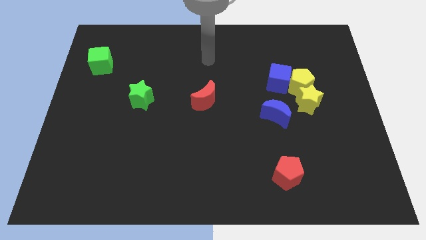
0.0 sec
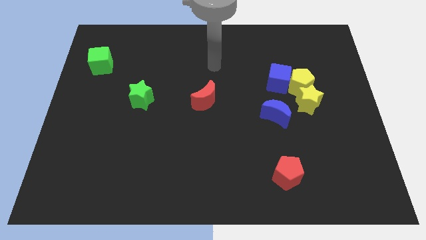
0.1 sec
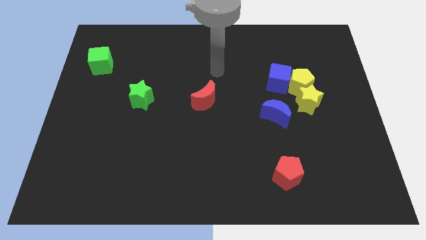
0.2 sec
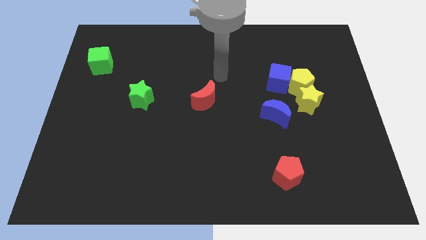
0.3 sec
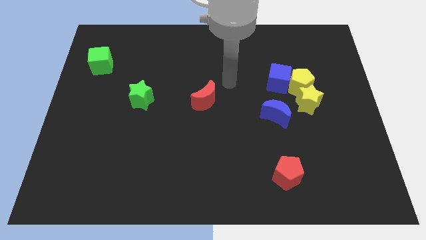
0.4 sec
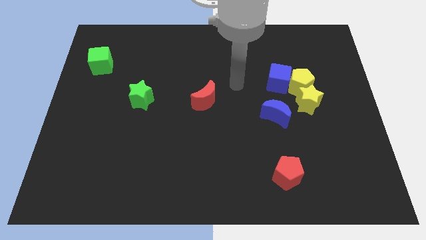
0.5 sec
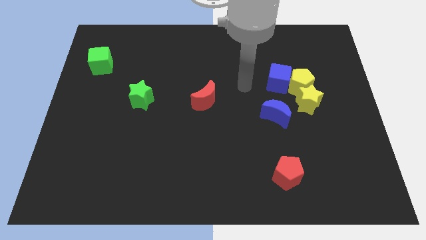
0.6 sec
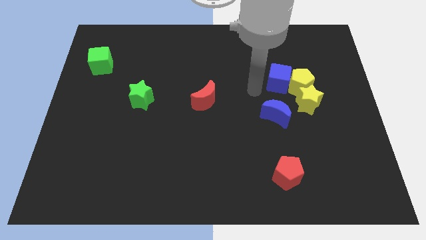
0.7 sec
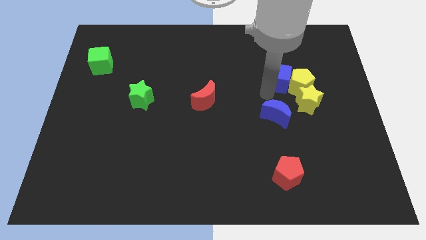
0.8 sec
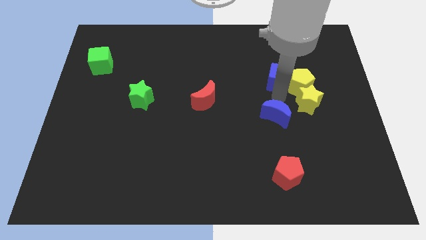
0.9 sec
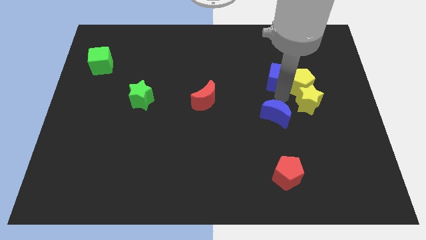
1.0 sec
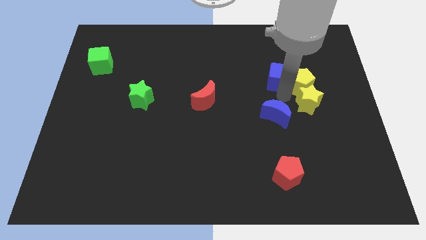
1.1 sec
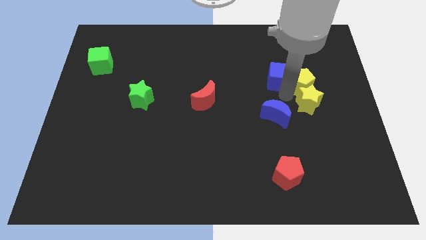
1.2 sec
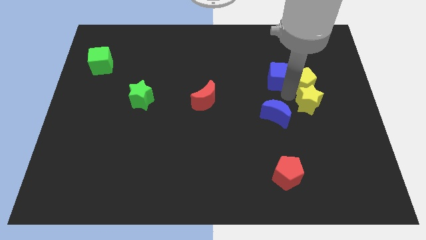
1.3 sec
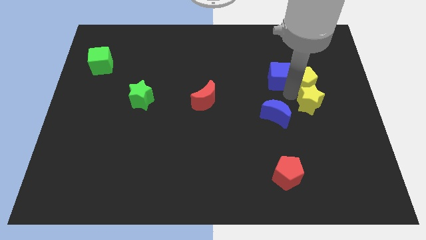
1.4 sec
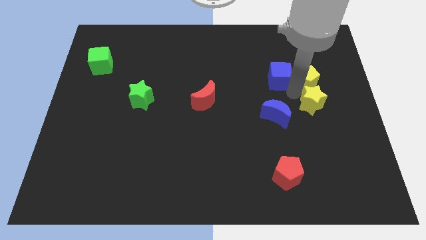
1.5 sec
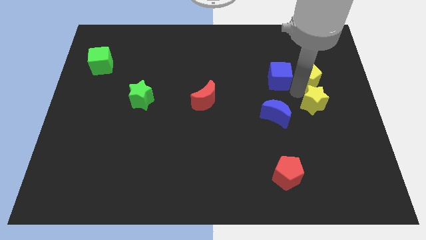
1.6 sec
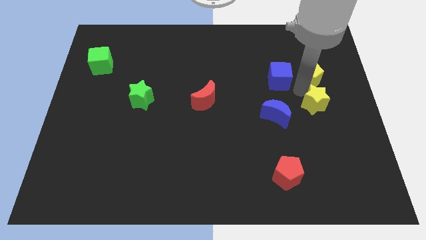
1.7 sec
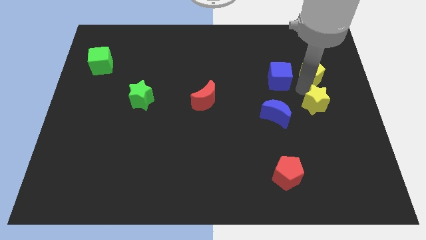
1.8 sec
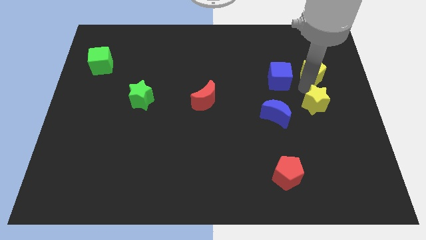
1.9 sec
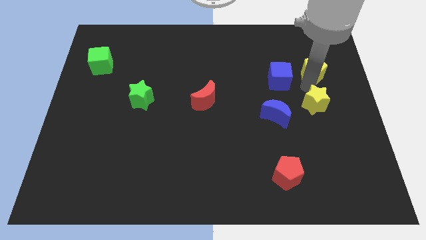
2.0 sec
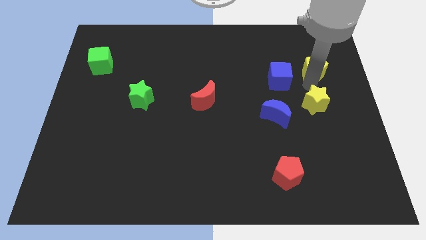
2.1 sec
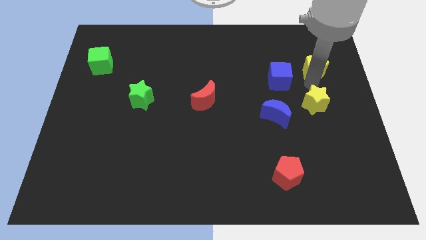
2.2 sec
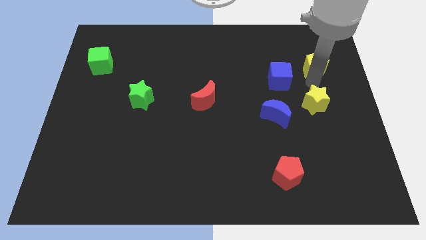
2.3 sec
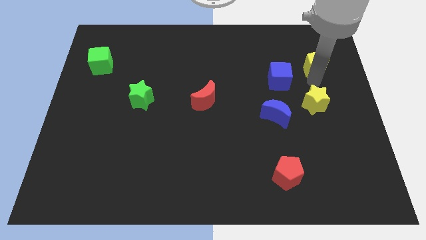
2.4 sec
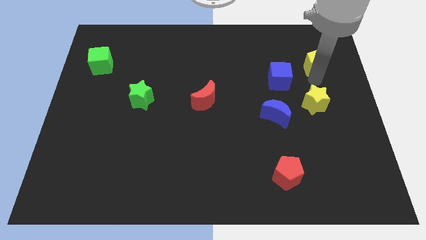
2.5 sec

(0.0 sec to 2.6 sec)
pull the yellow pentagon apart from the blue cube and yellow star

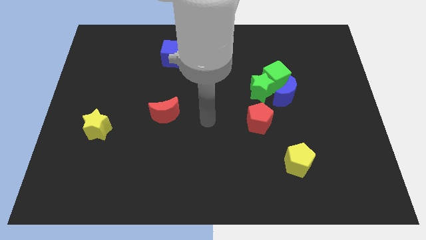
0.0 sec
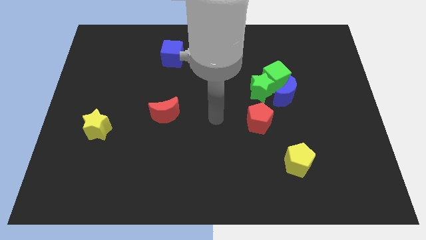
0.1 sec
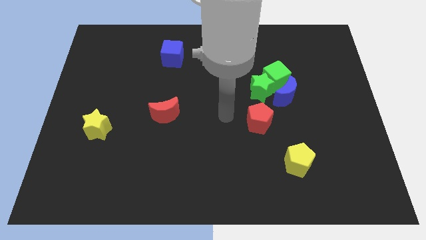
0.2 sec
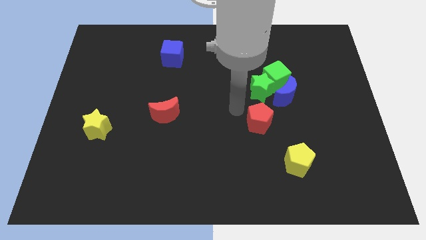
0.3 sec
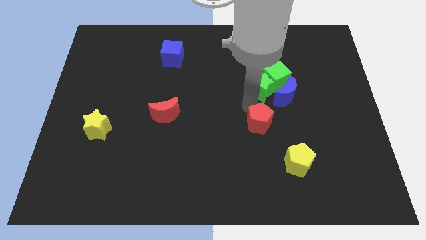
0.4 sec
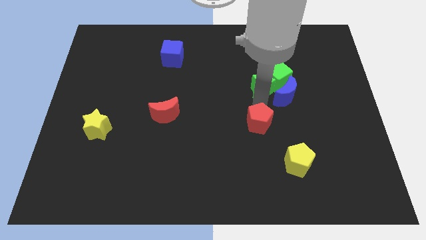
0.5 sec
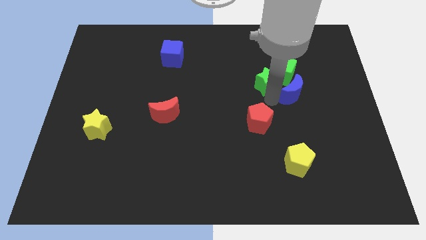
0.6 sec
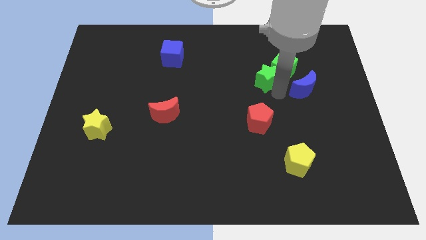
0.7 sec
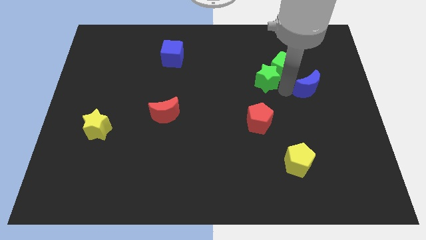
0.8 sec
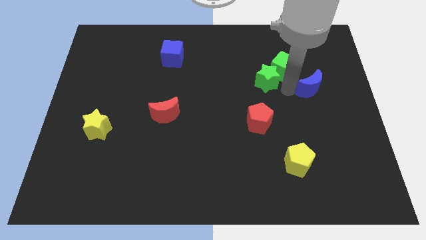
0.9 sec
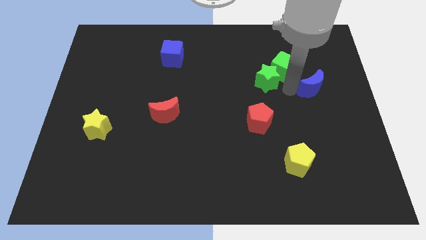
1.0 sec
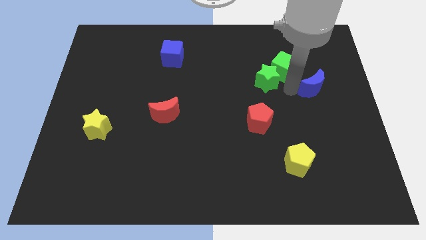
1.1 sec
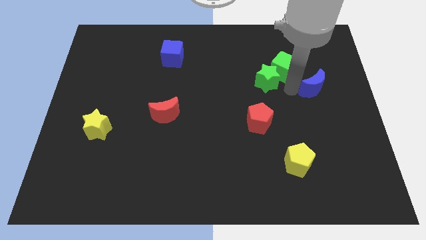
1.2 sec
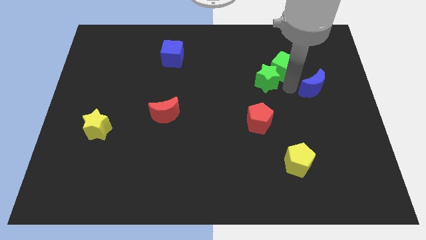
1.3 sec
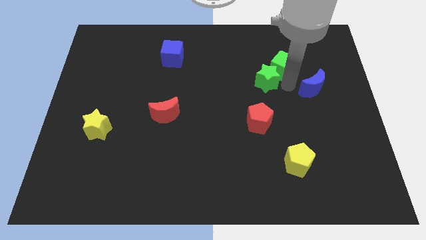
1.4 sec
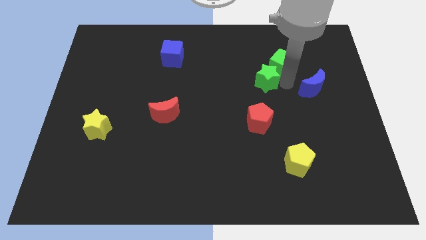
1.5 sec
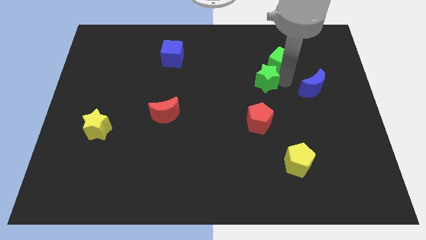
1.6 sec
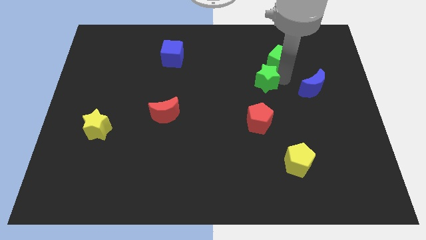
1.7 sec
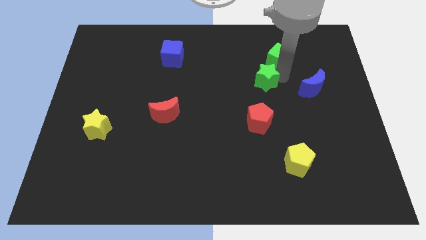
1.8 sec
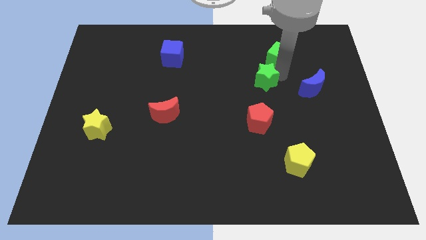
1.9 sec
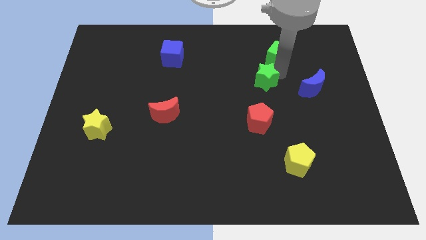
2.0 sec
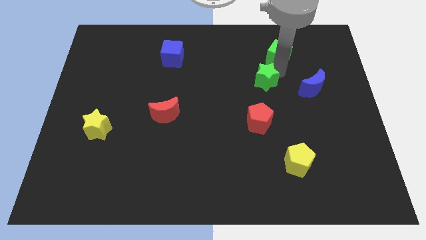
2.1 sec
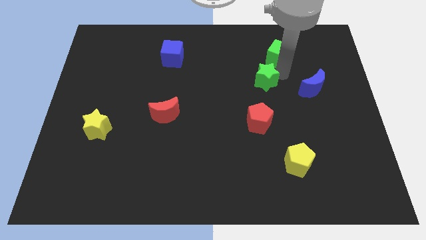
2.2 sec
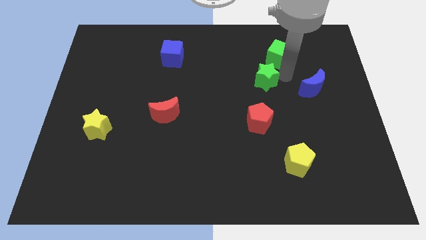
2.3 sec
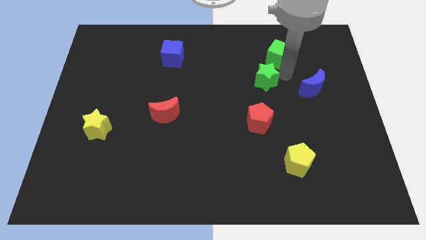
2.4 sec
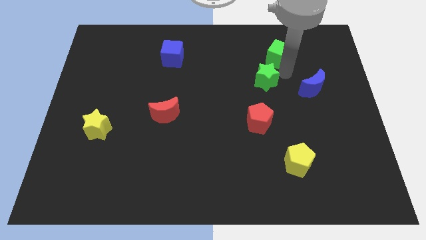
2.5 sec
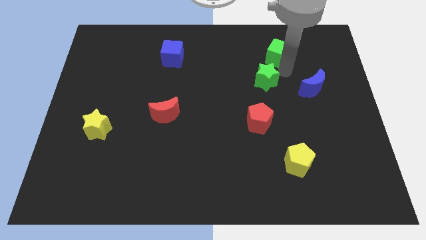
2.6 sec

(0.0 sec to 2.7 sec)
move the green cube away from the green star and blue moon

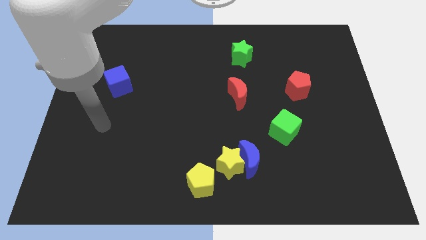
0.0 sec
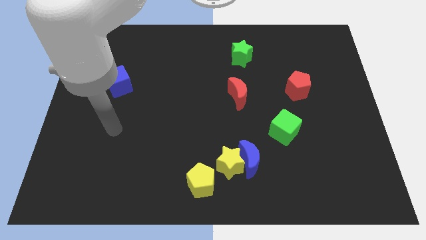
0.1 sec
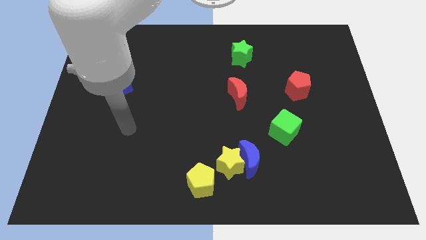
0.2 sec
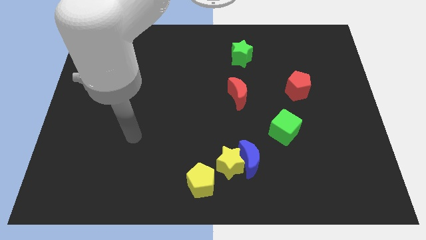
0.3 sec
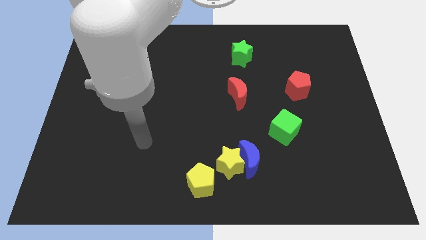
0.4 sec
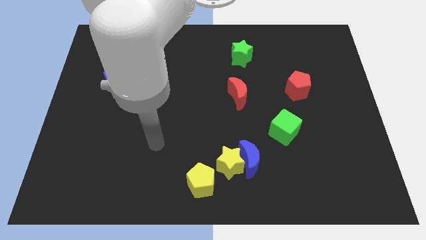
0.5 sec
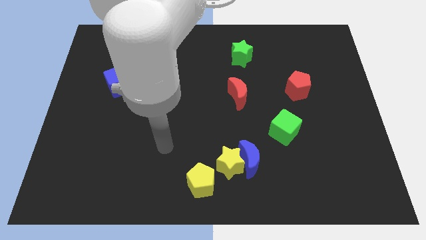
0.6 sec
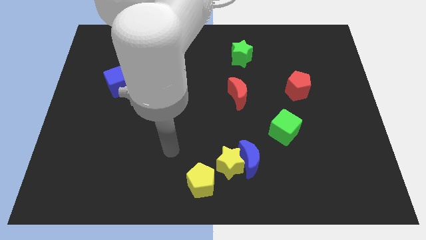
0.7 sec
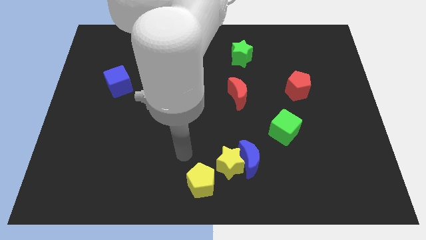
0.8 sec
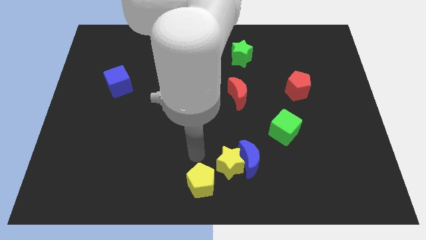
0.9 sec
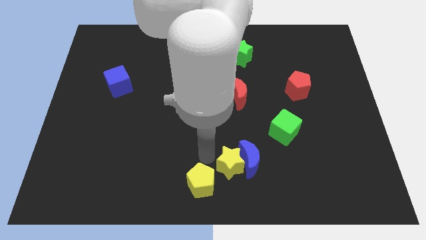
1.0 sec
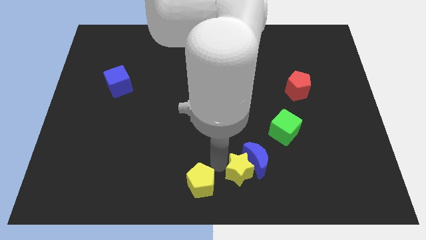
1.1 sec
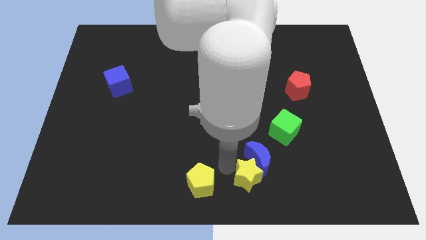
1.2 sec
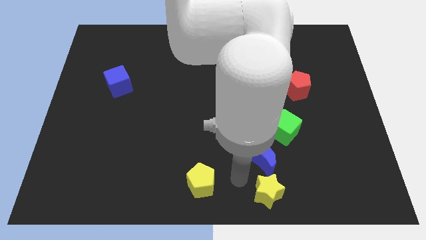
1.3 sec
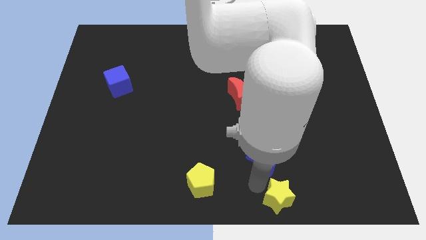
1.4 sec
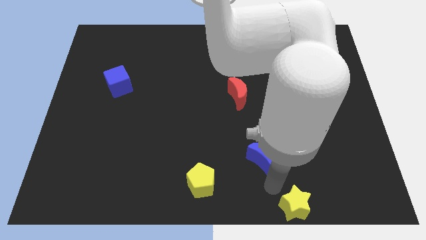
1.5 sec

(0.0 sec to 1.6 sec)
separate the blue moon from the yellow star

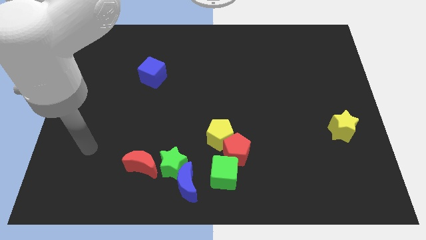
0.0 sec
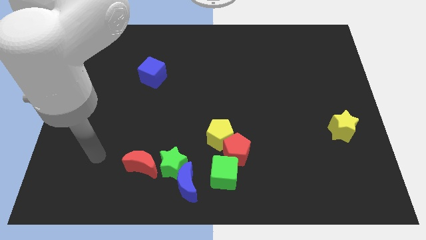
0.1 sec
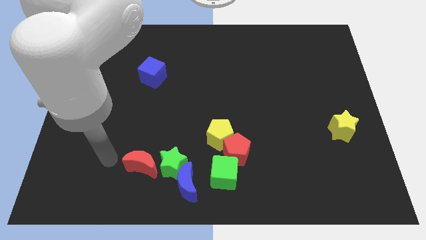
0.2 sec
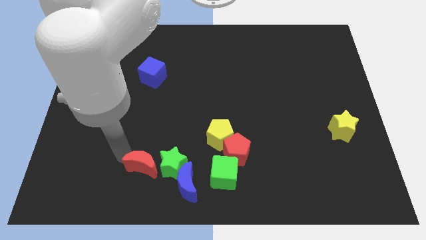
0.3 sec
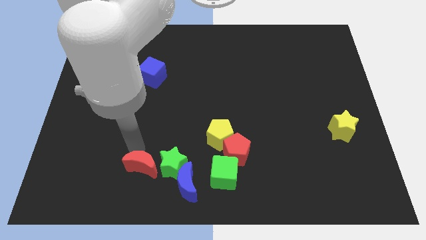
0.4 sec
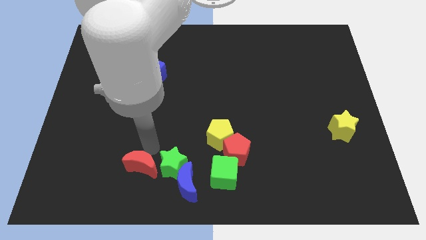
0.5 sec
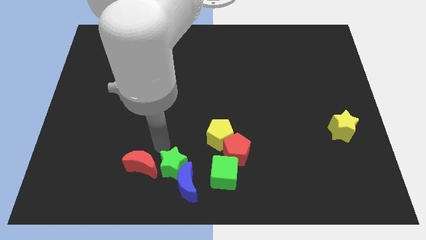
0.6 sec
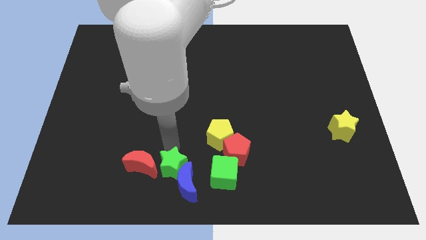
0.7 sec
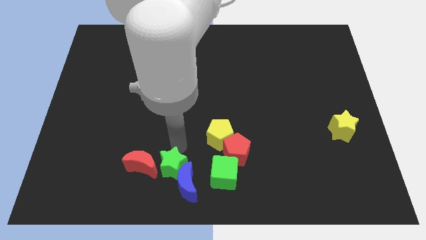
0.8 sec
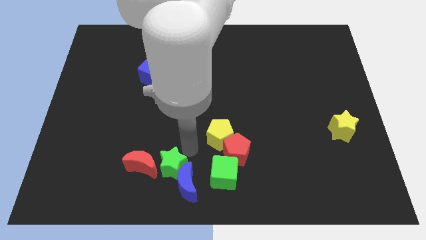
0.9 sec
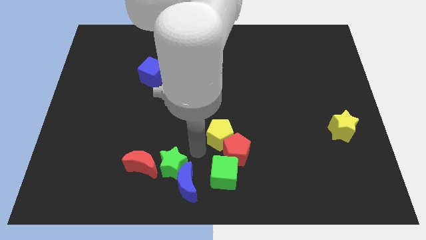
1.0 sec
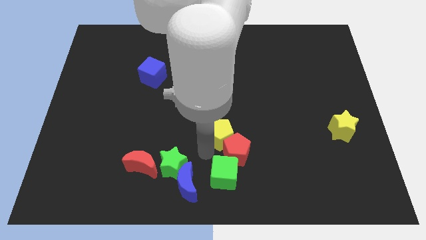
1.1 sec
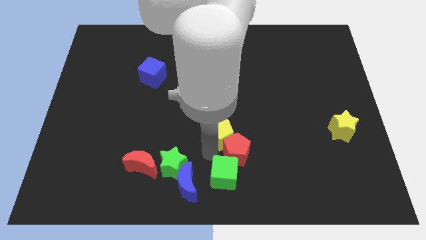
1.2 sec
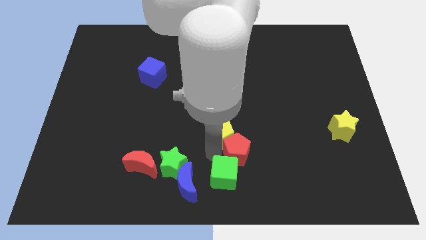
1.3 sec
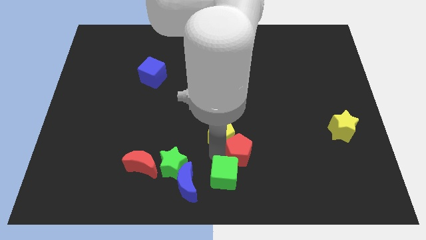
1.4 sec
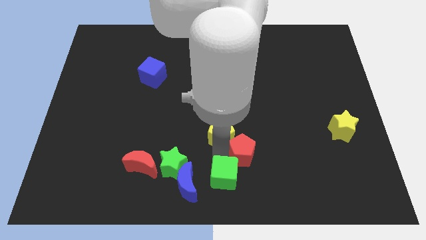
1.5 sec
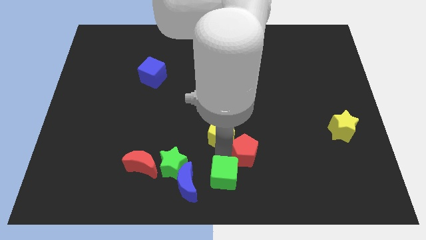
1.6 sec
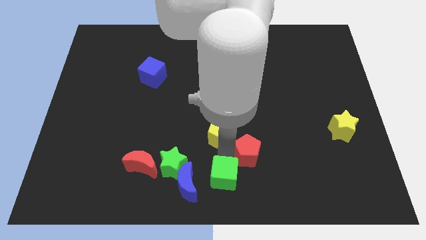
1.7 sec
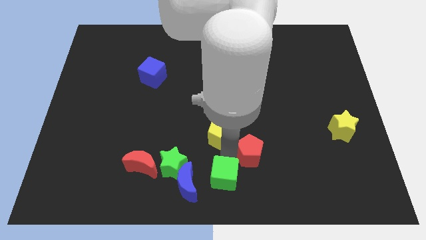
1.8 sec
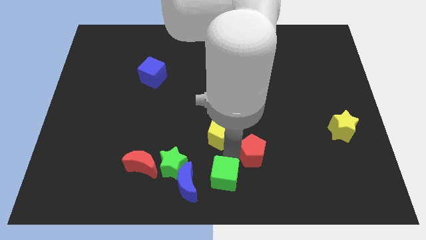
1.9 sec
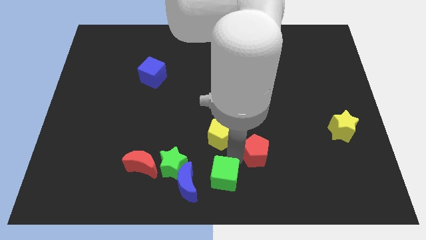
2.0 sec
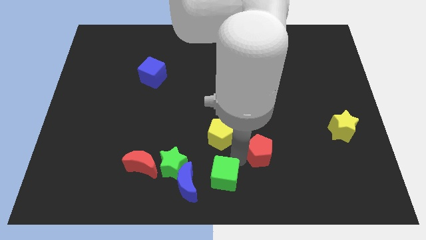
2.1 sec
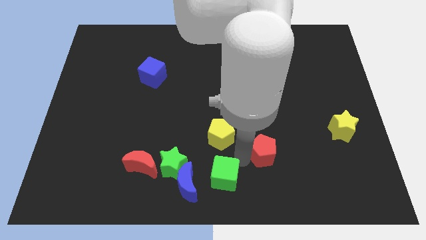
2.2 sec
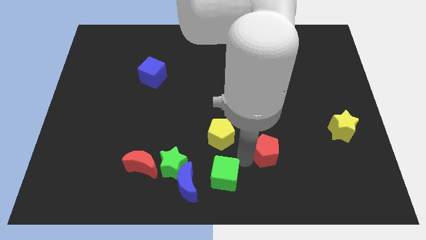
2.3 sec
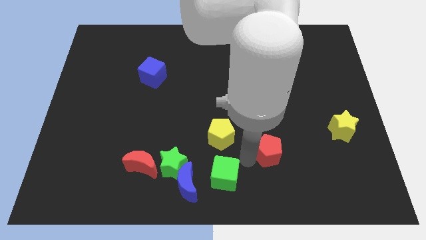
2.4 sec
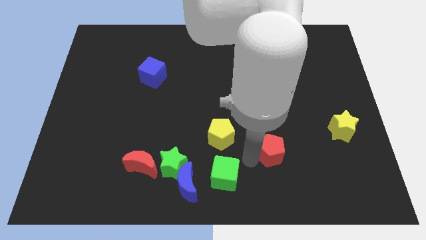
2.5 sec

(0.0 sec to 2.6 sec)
separate the red pentagon from the yellow pentagon and green cube

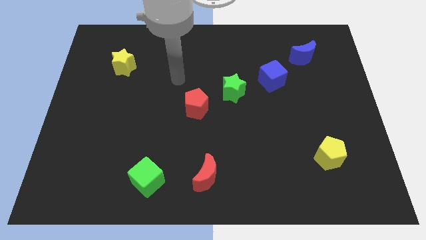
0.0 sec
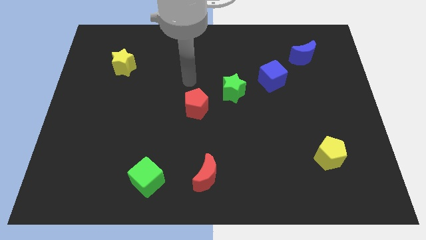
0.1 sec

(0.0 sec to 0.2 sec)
pull the red pentagon apart from the green star
